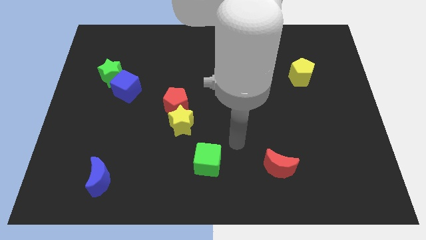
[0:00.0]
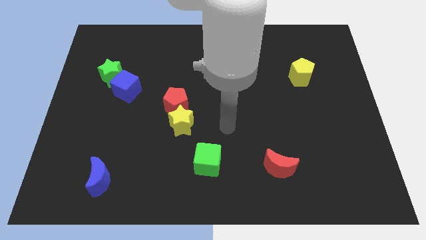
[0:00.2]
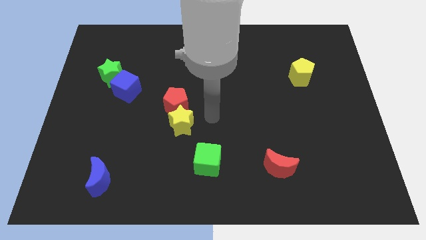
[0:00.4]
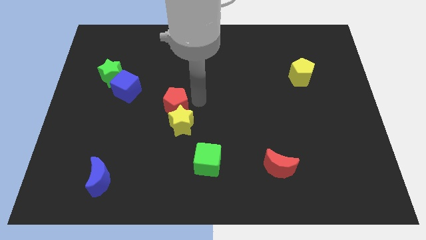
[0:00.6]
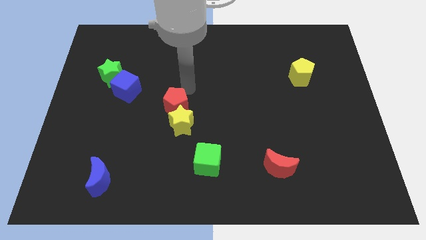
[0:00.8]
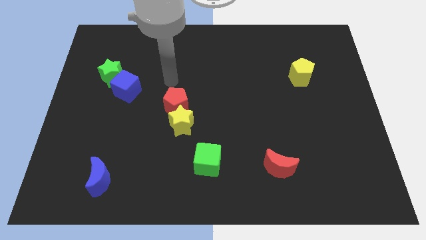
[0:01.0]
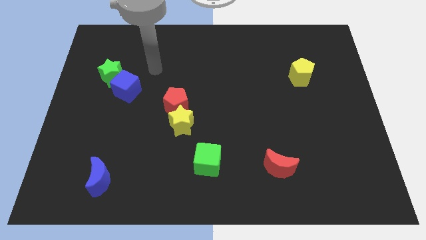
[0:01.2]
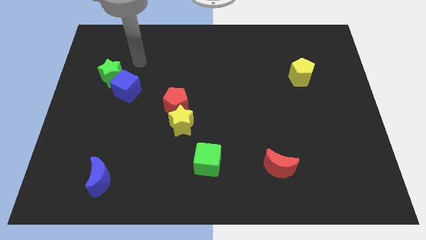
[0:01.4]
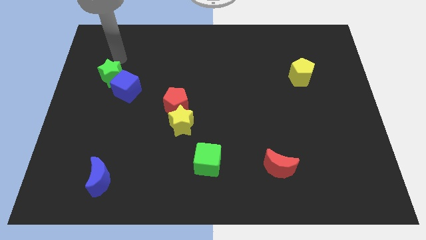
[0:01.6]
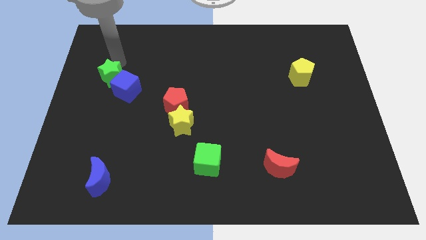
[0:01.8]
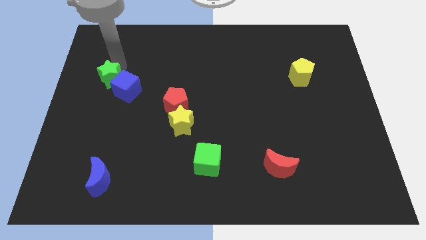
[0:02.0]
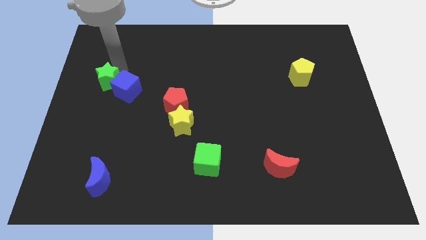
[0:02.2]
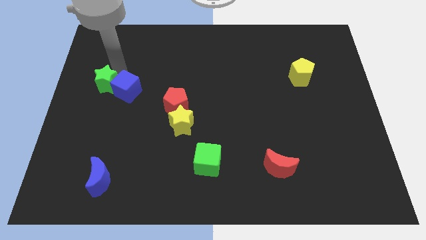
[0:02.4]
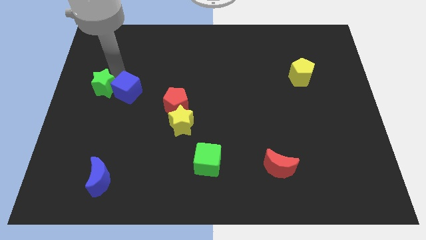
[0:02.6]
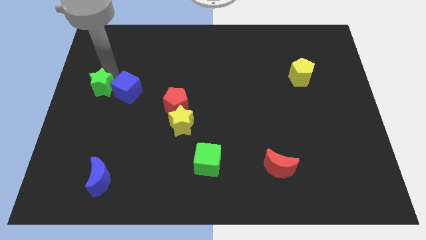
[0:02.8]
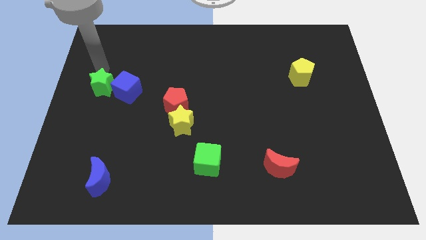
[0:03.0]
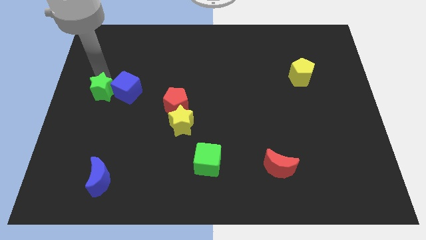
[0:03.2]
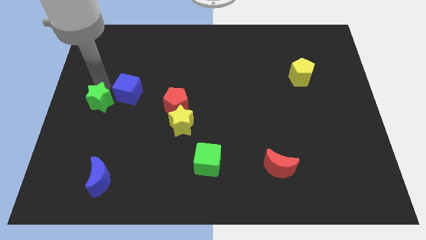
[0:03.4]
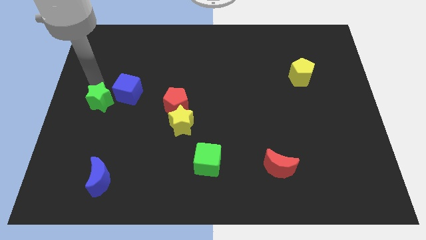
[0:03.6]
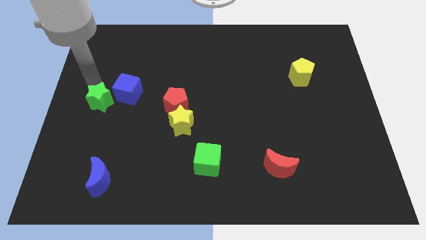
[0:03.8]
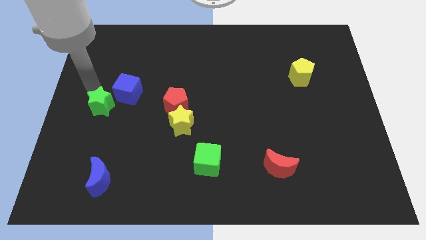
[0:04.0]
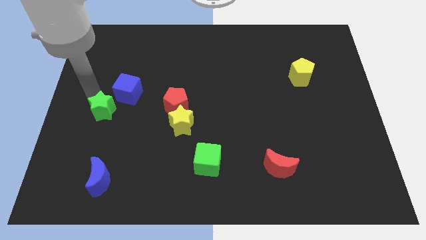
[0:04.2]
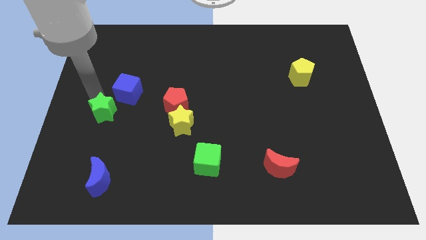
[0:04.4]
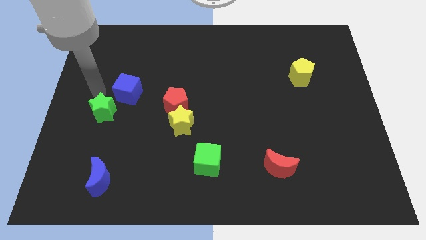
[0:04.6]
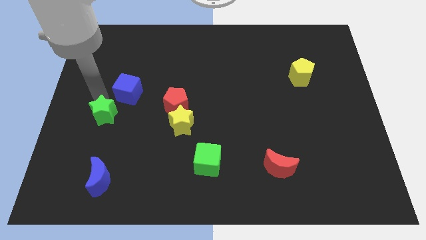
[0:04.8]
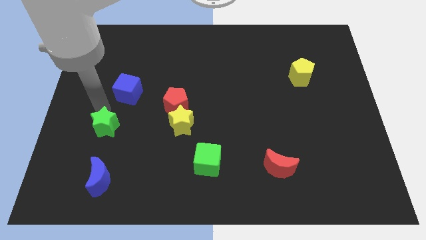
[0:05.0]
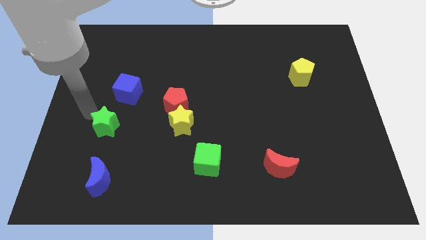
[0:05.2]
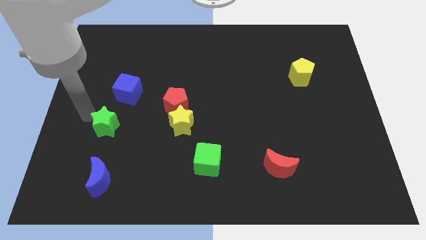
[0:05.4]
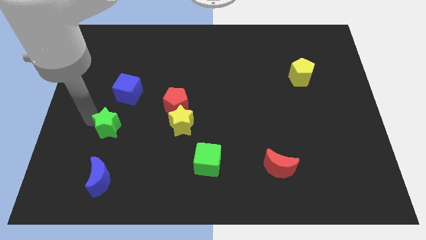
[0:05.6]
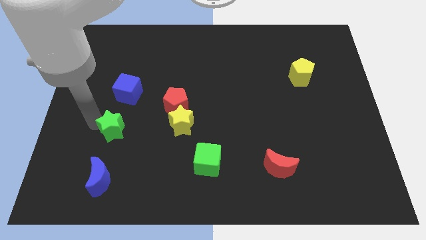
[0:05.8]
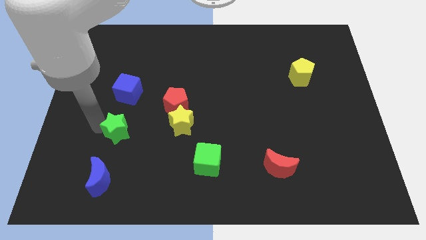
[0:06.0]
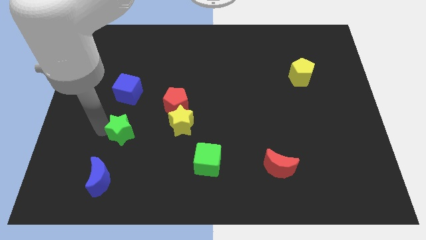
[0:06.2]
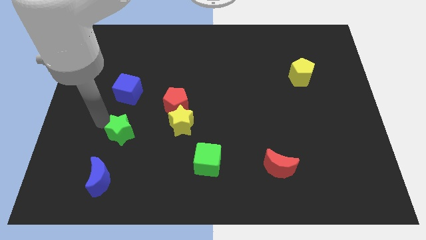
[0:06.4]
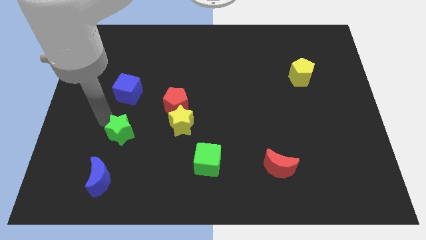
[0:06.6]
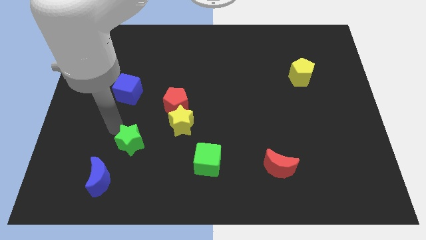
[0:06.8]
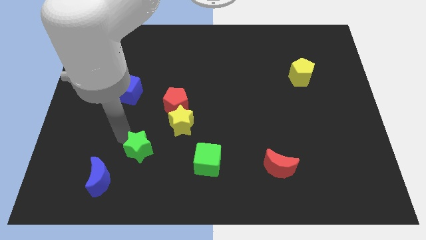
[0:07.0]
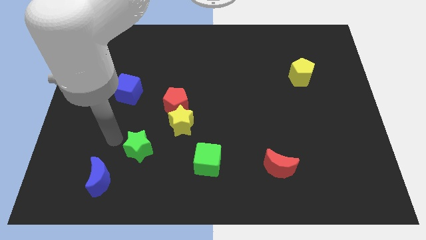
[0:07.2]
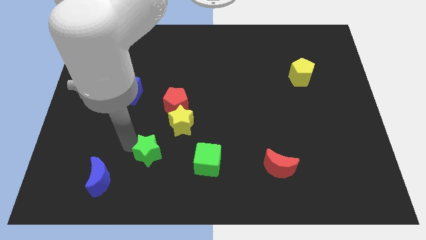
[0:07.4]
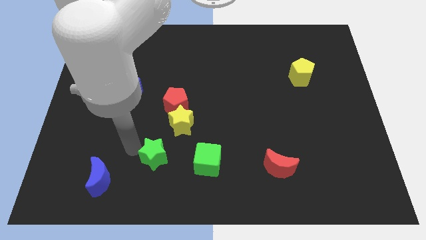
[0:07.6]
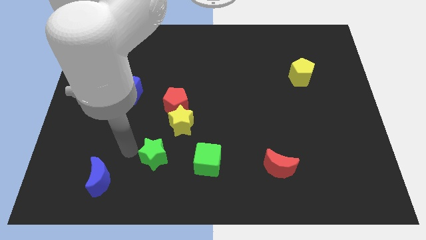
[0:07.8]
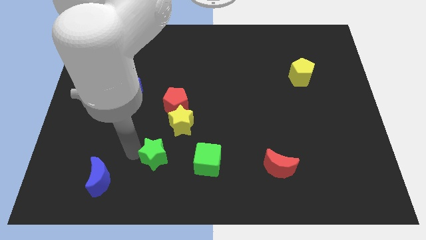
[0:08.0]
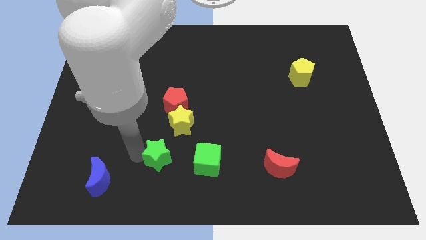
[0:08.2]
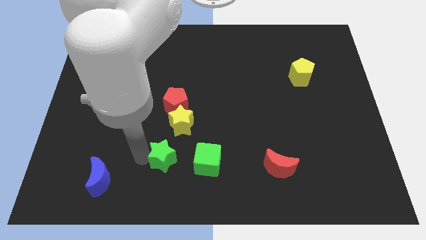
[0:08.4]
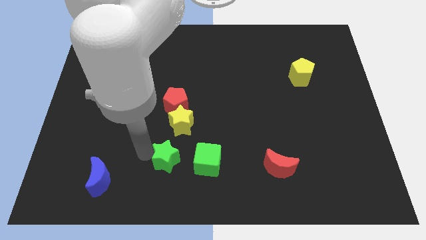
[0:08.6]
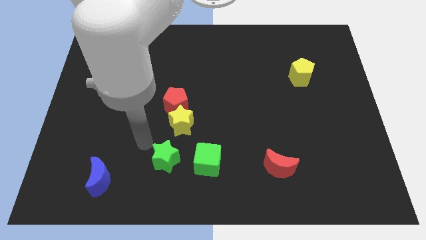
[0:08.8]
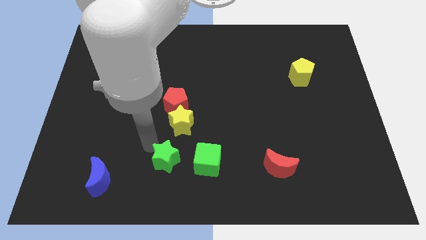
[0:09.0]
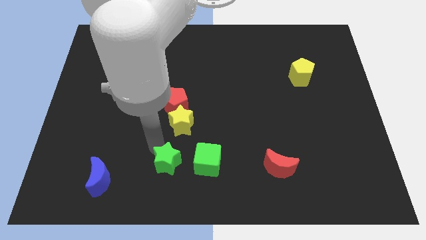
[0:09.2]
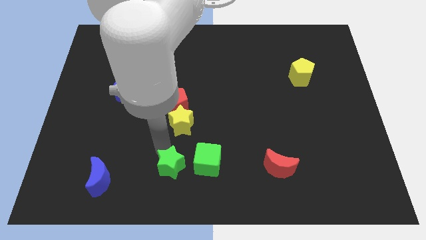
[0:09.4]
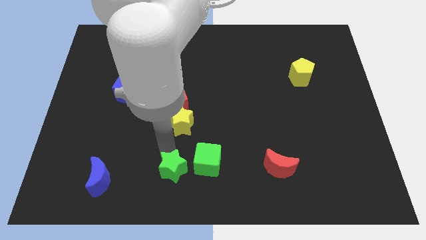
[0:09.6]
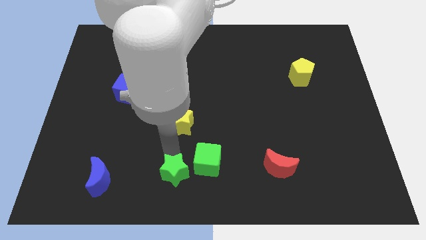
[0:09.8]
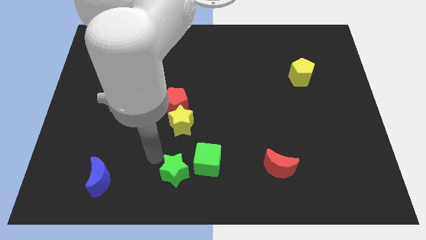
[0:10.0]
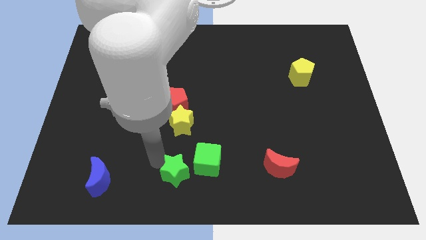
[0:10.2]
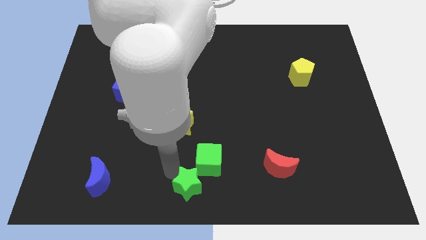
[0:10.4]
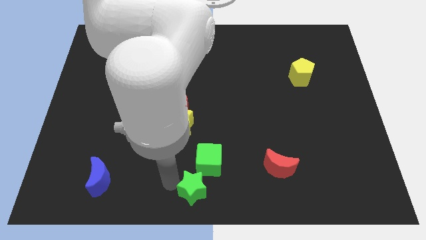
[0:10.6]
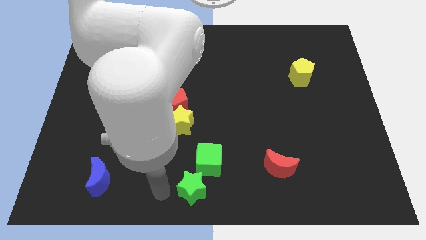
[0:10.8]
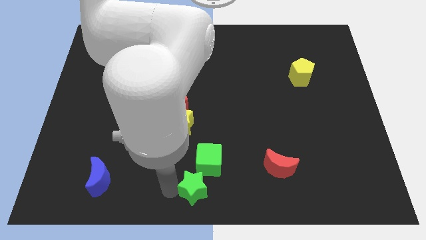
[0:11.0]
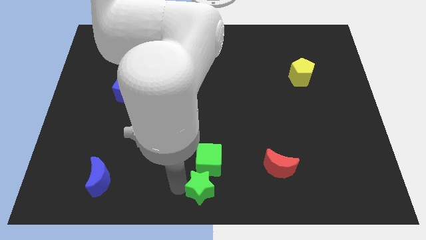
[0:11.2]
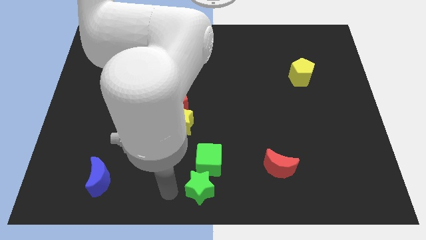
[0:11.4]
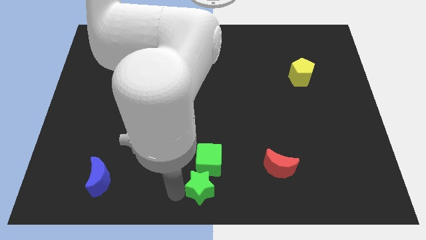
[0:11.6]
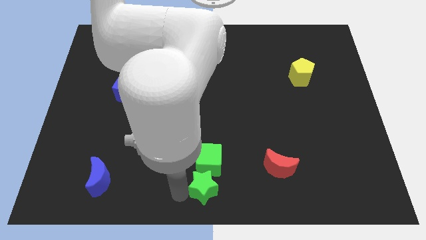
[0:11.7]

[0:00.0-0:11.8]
put the green star to the bottom right of the green cube

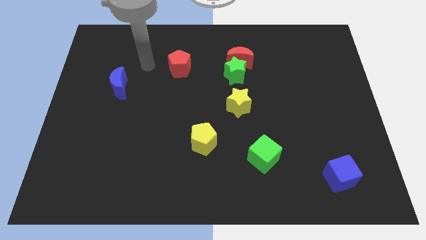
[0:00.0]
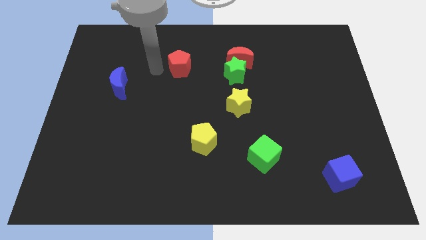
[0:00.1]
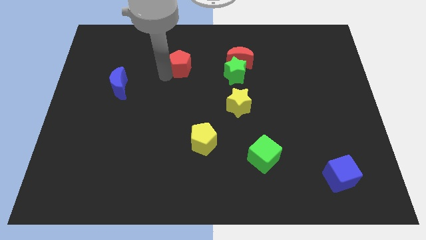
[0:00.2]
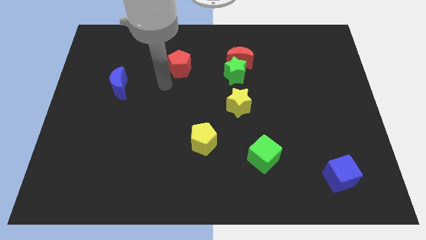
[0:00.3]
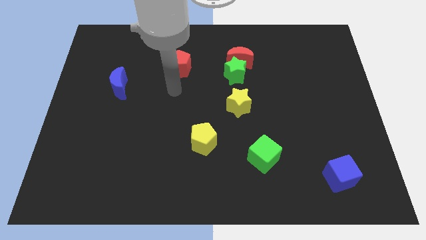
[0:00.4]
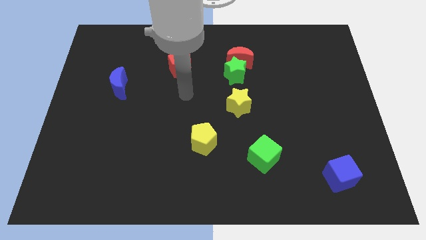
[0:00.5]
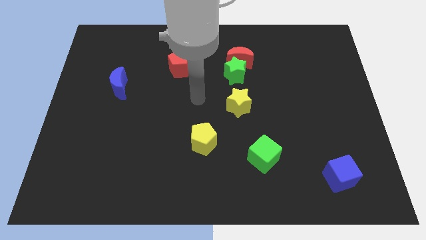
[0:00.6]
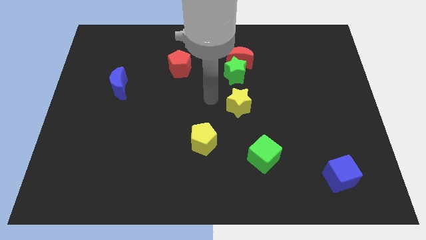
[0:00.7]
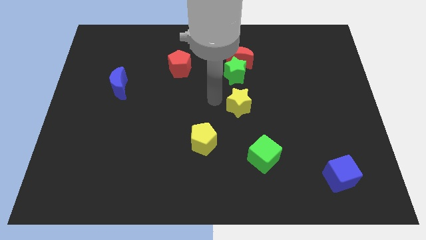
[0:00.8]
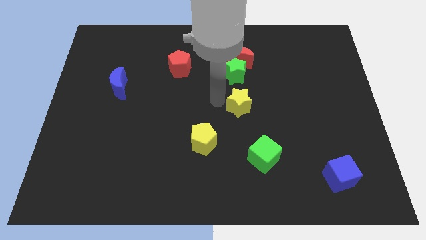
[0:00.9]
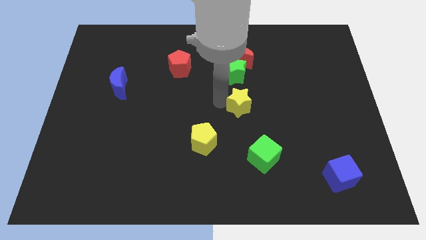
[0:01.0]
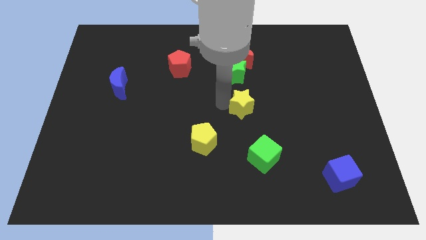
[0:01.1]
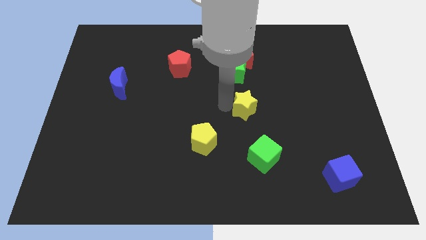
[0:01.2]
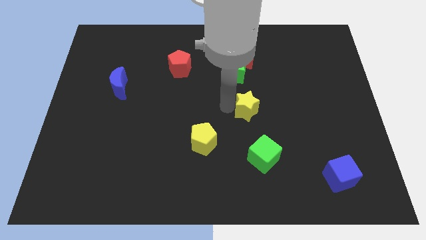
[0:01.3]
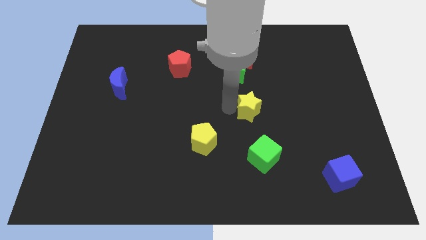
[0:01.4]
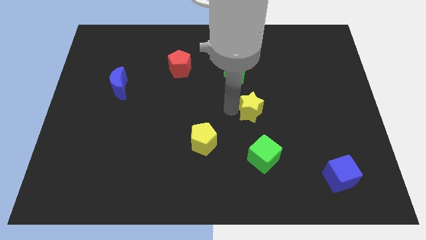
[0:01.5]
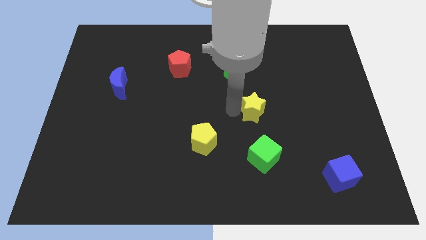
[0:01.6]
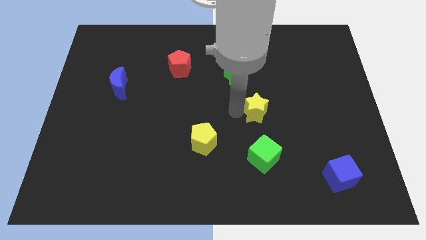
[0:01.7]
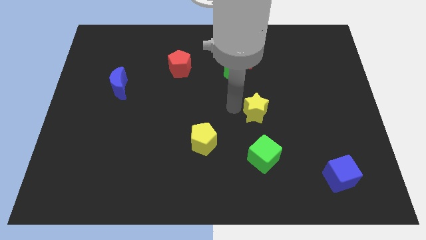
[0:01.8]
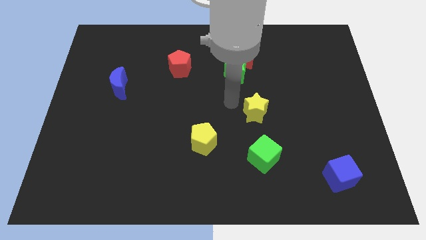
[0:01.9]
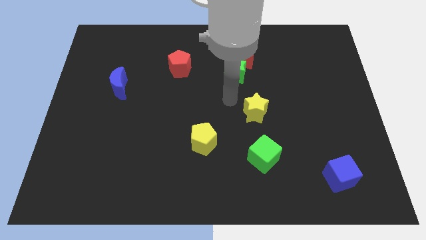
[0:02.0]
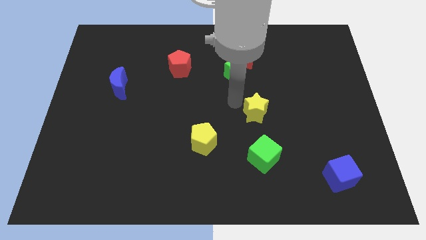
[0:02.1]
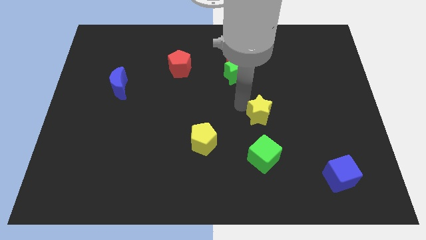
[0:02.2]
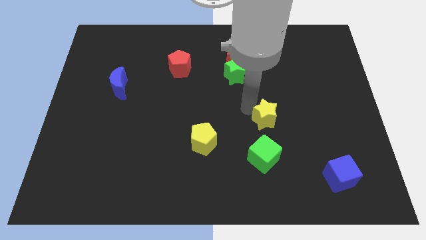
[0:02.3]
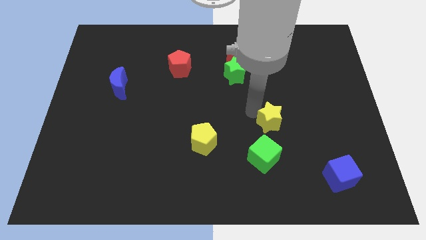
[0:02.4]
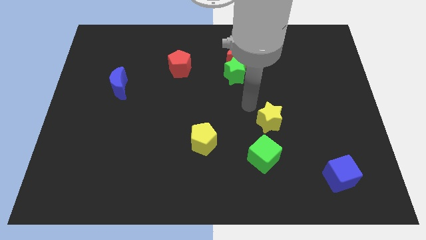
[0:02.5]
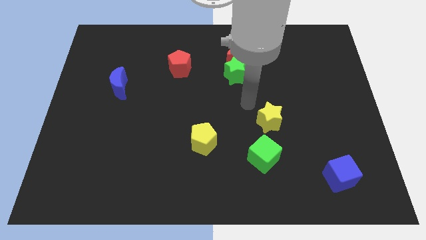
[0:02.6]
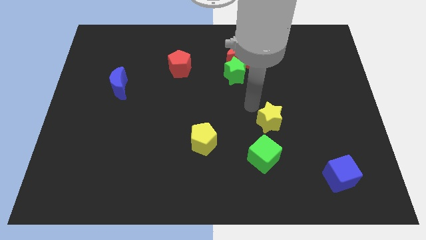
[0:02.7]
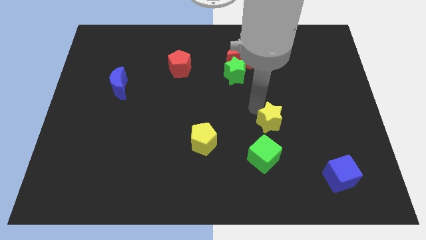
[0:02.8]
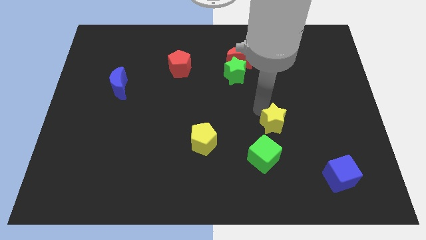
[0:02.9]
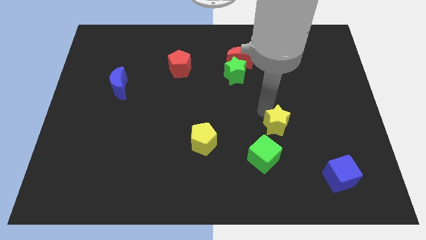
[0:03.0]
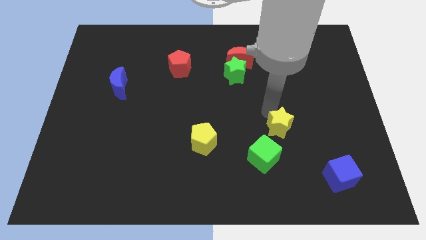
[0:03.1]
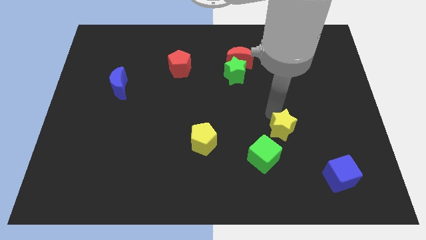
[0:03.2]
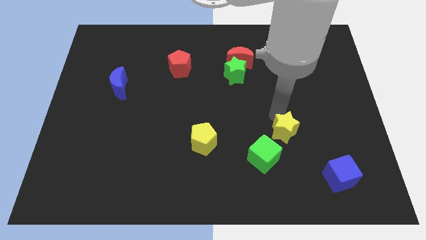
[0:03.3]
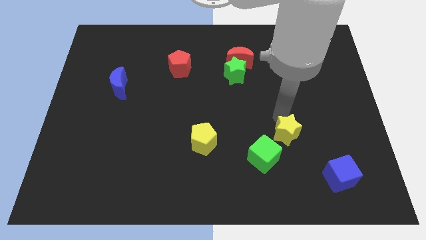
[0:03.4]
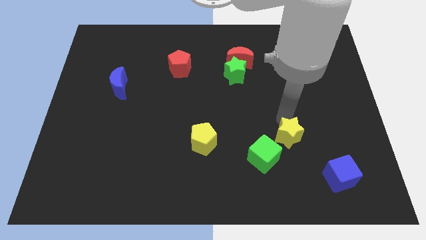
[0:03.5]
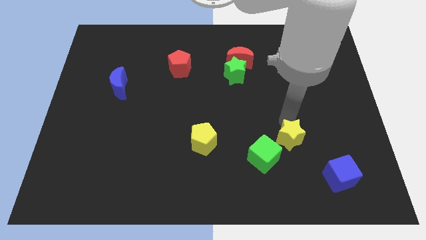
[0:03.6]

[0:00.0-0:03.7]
slide the yellow star right of the green cube
